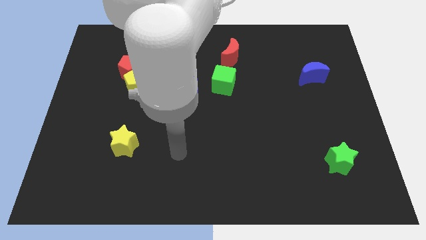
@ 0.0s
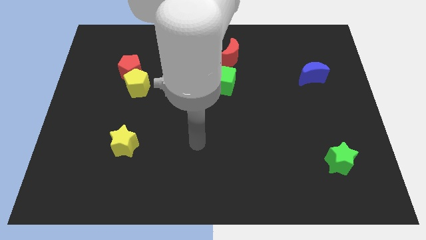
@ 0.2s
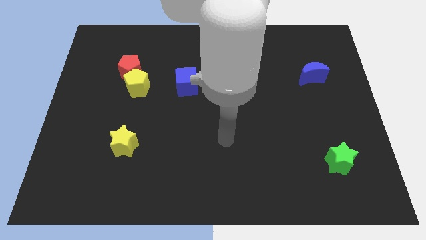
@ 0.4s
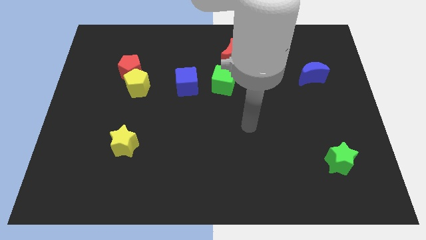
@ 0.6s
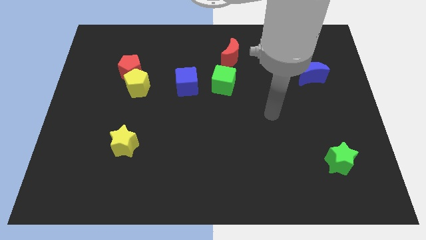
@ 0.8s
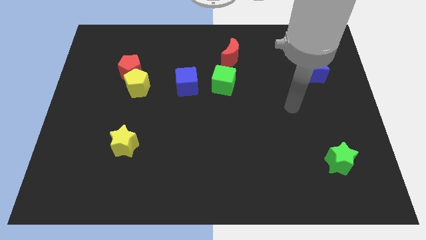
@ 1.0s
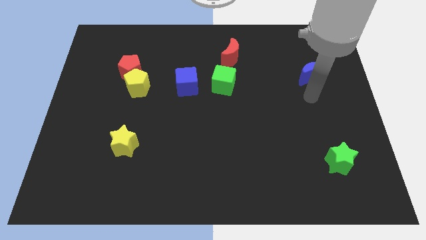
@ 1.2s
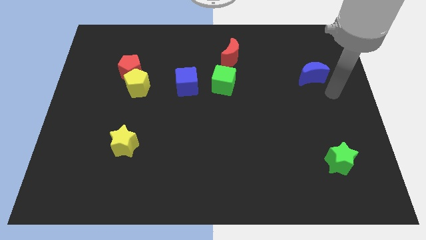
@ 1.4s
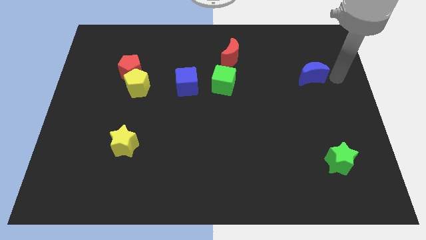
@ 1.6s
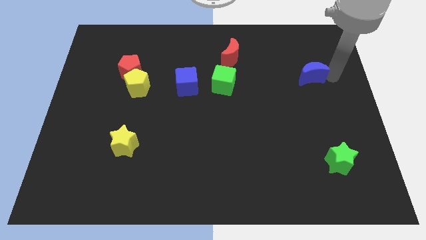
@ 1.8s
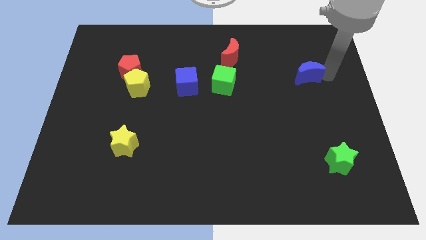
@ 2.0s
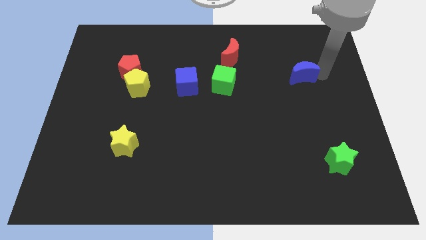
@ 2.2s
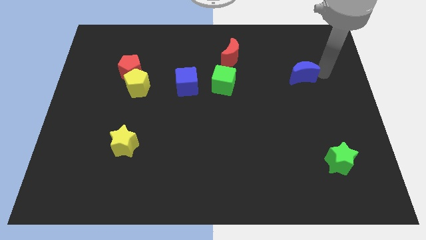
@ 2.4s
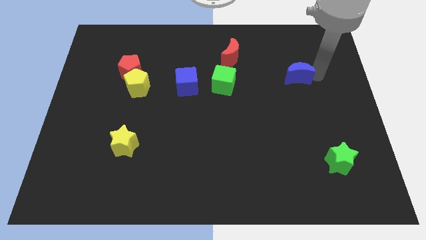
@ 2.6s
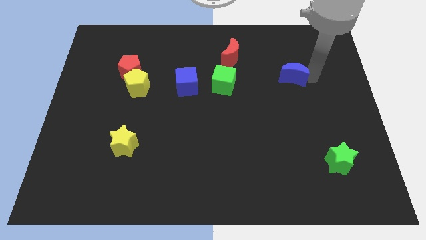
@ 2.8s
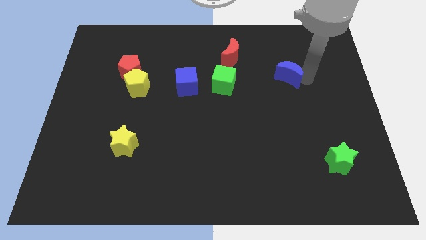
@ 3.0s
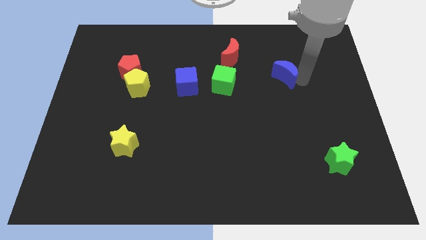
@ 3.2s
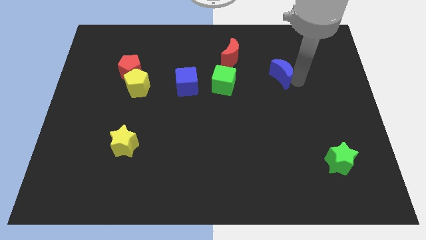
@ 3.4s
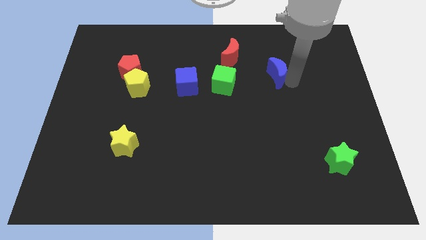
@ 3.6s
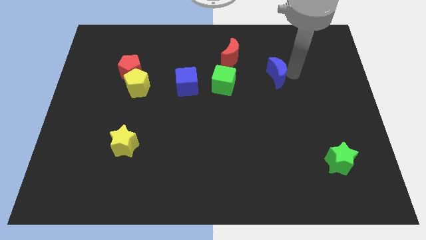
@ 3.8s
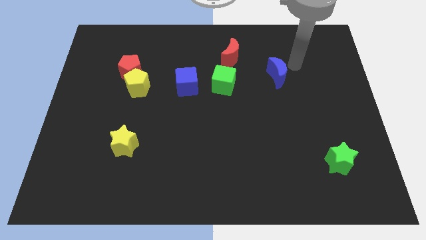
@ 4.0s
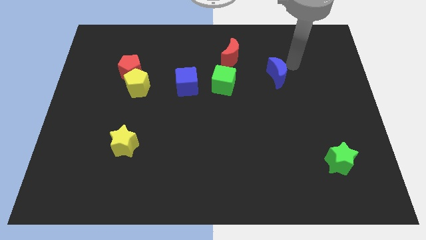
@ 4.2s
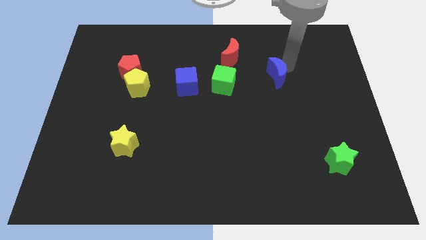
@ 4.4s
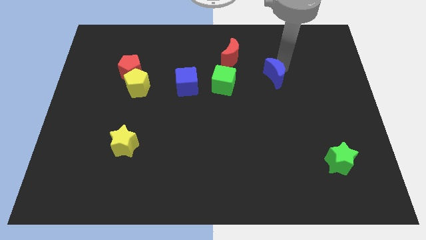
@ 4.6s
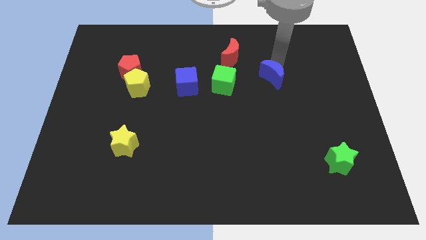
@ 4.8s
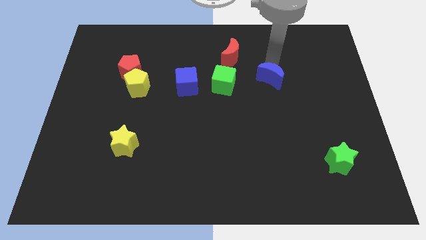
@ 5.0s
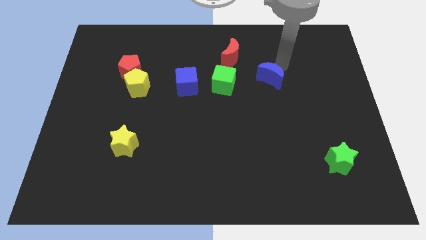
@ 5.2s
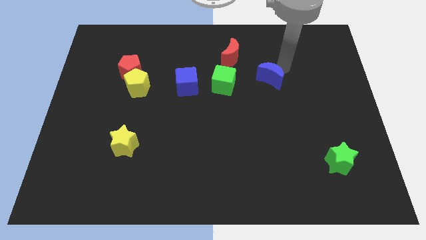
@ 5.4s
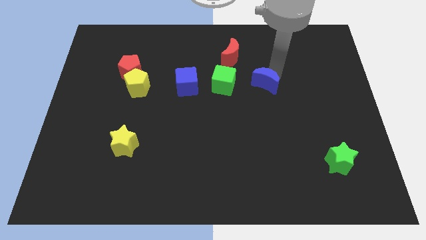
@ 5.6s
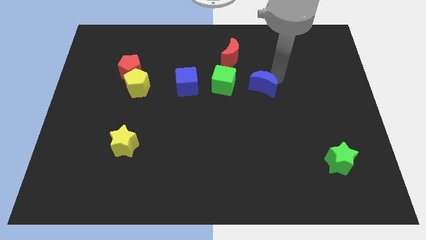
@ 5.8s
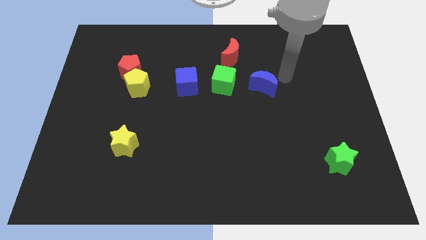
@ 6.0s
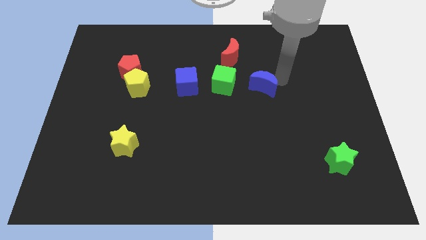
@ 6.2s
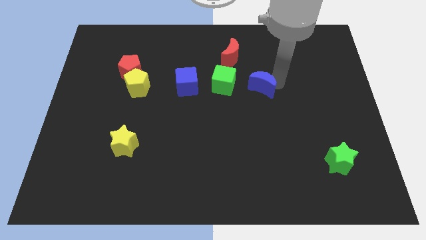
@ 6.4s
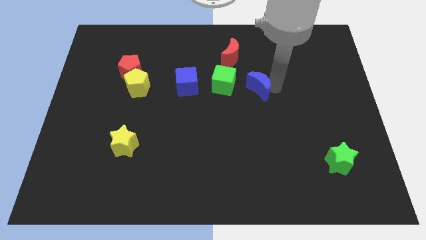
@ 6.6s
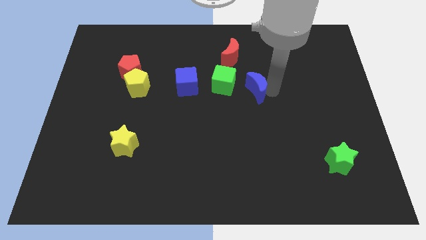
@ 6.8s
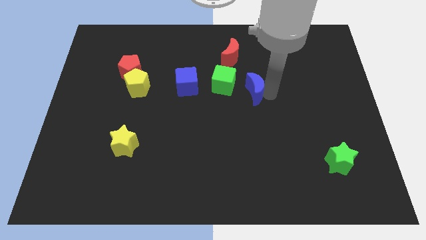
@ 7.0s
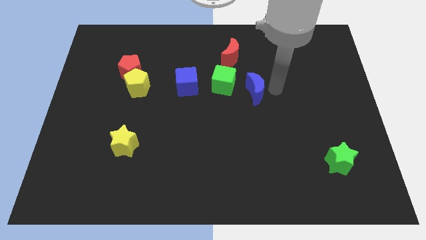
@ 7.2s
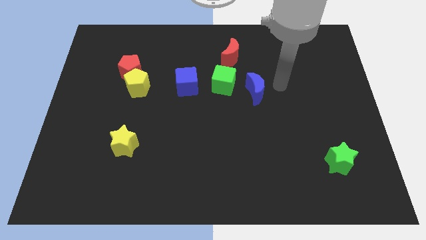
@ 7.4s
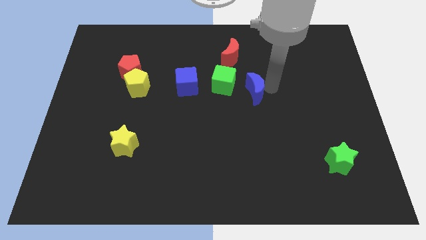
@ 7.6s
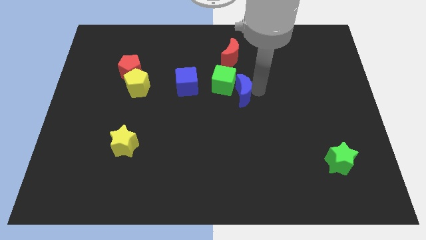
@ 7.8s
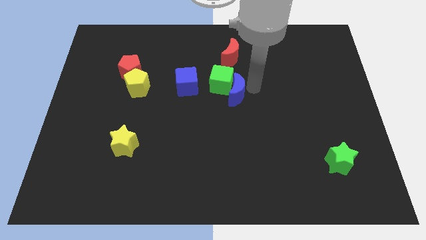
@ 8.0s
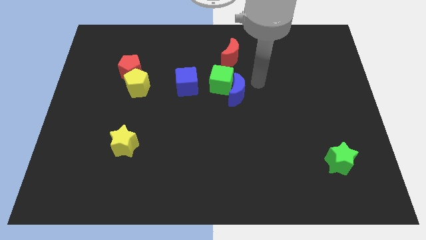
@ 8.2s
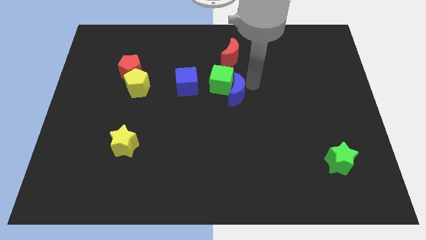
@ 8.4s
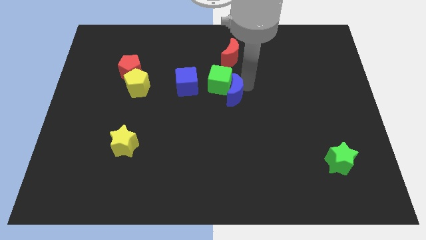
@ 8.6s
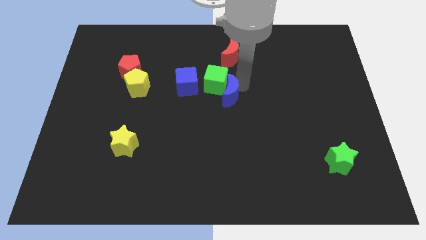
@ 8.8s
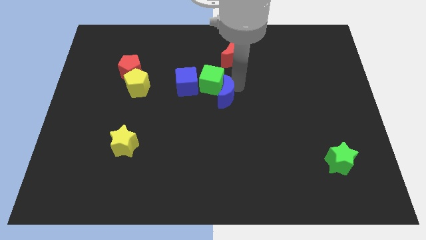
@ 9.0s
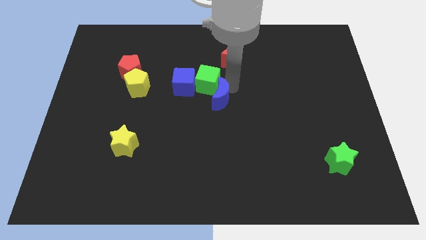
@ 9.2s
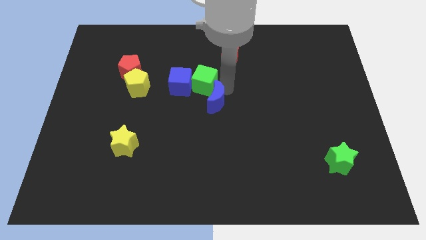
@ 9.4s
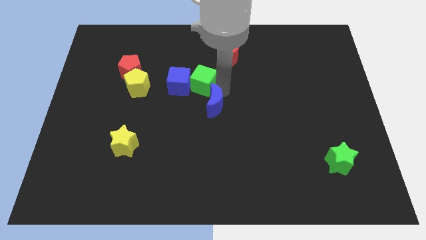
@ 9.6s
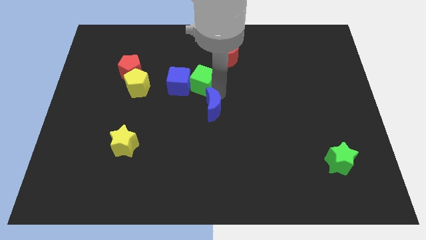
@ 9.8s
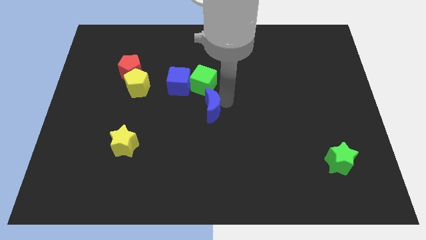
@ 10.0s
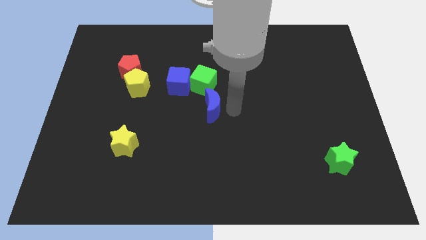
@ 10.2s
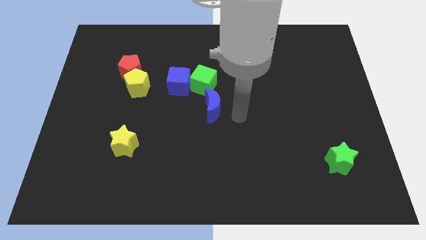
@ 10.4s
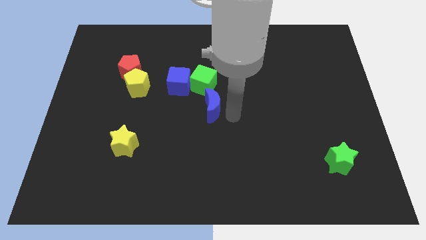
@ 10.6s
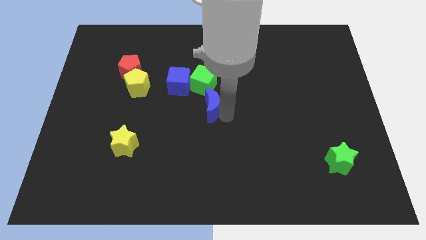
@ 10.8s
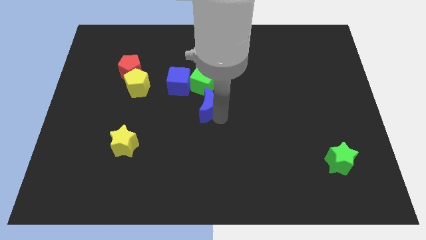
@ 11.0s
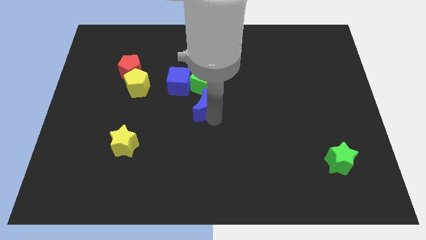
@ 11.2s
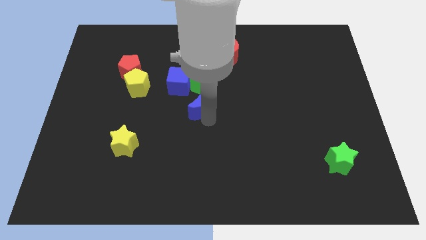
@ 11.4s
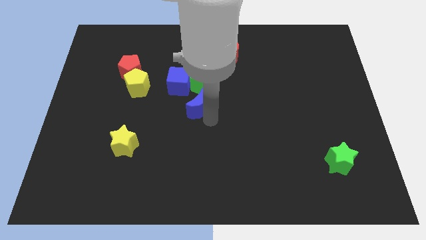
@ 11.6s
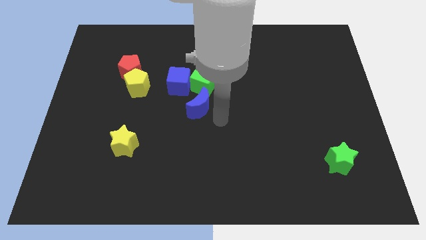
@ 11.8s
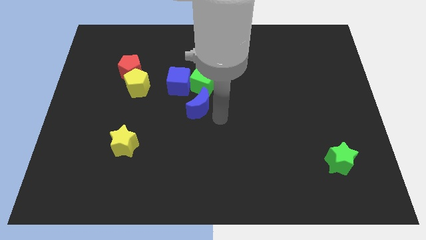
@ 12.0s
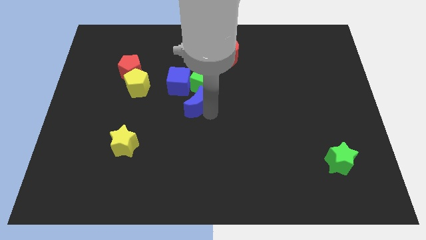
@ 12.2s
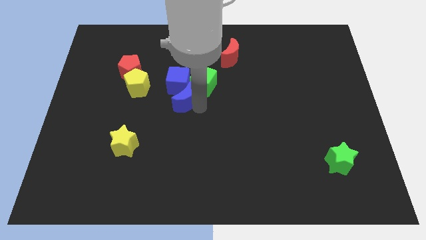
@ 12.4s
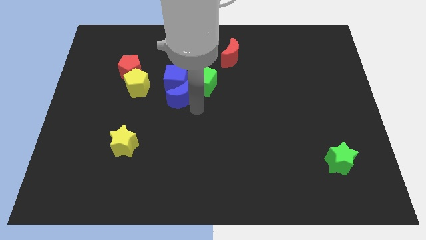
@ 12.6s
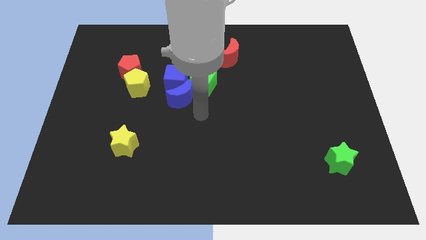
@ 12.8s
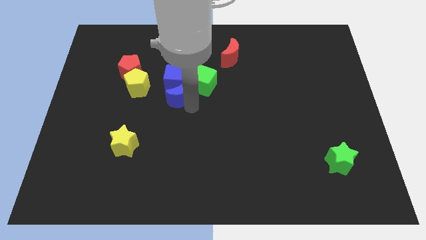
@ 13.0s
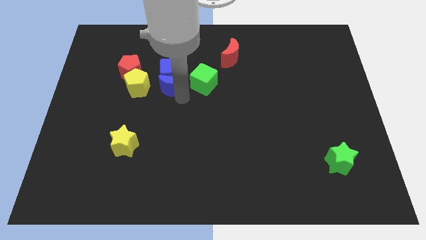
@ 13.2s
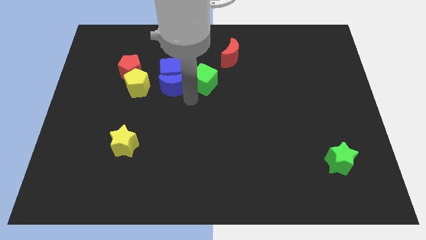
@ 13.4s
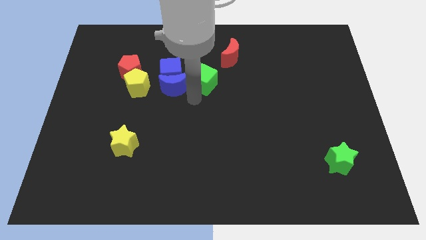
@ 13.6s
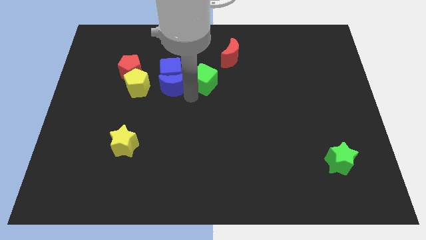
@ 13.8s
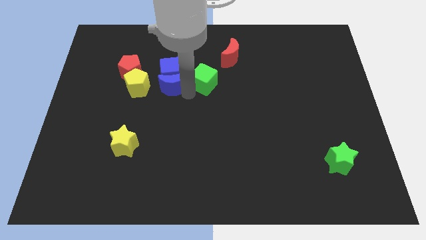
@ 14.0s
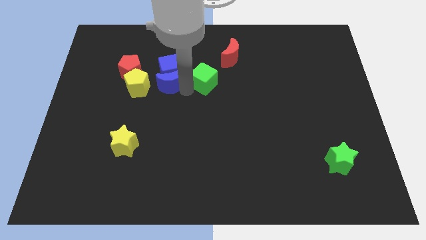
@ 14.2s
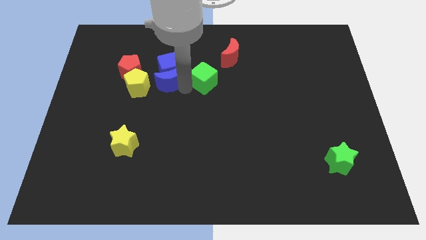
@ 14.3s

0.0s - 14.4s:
push the blue moon to the top right side of the yellow pentagon
